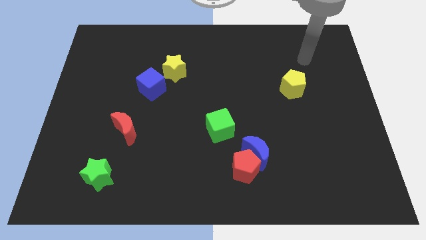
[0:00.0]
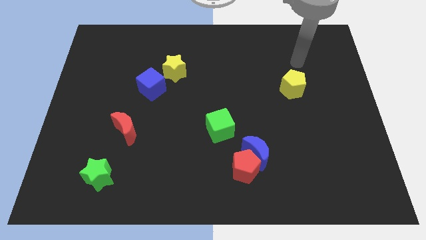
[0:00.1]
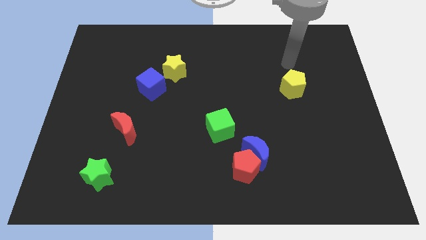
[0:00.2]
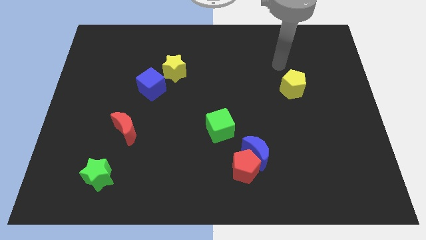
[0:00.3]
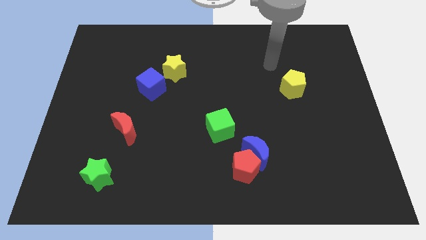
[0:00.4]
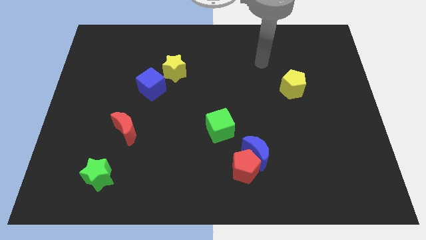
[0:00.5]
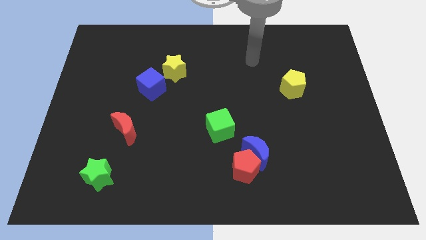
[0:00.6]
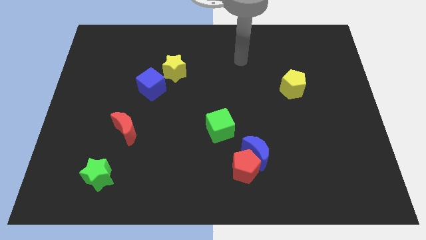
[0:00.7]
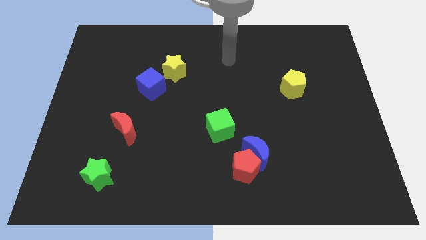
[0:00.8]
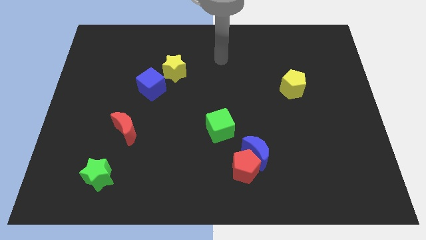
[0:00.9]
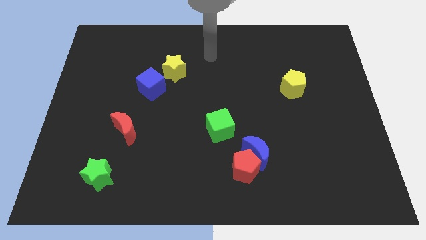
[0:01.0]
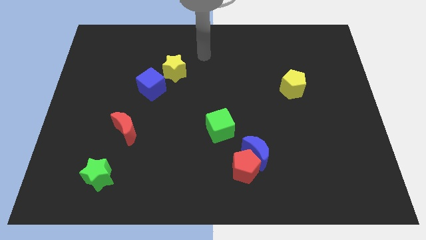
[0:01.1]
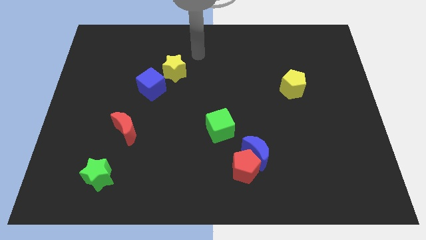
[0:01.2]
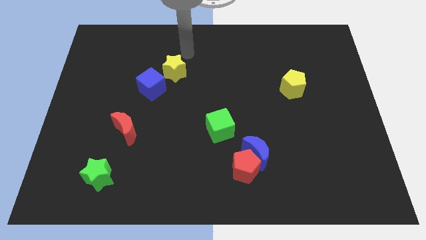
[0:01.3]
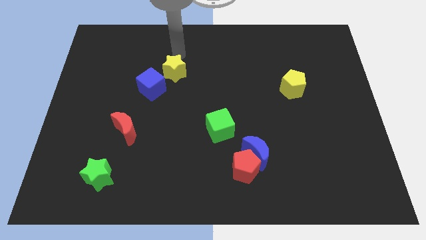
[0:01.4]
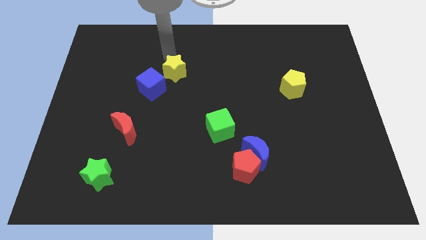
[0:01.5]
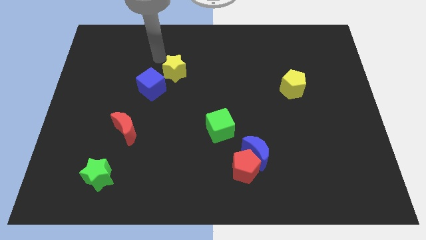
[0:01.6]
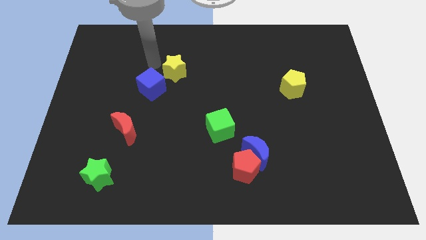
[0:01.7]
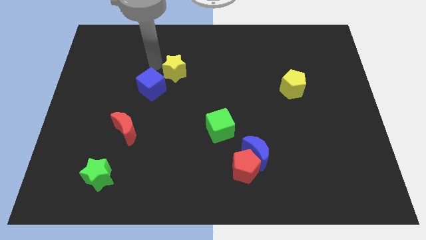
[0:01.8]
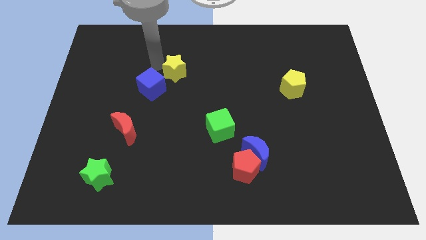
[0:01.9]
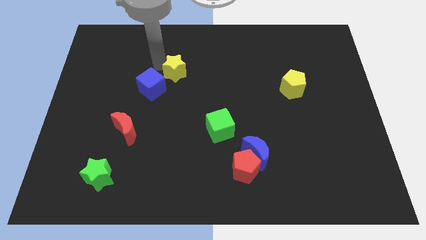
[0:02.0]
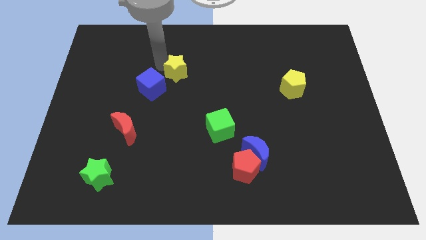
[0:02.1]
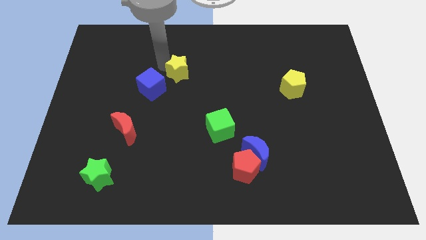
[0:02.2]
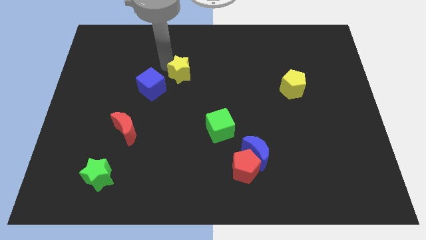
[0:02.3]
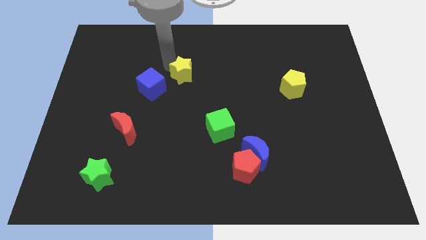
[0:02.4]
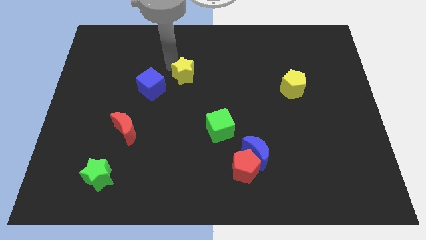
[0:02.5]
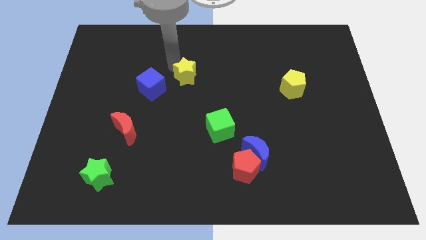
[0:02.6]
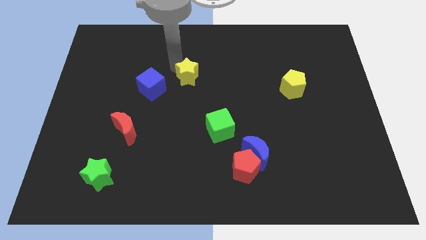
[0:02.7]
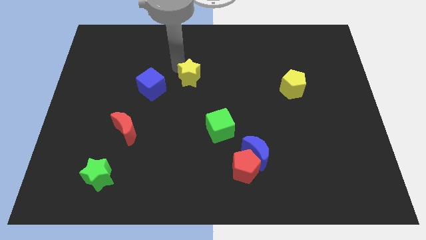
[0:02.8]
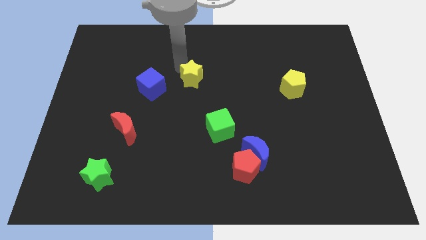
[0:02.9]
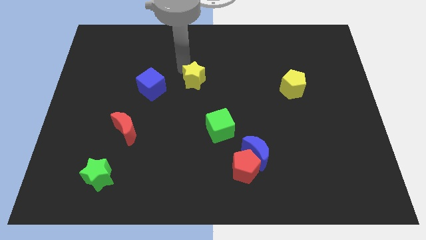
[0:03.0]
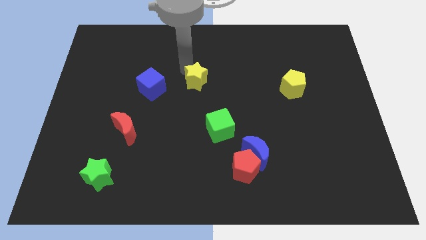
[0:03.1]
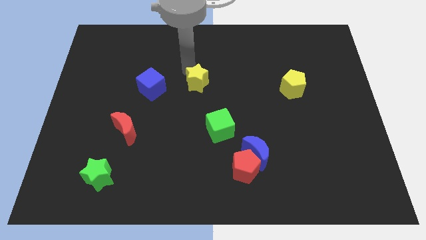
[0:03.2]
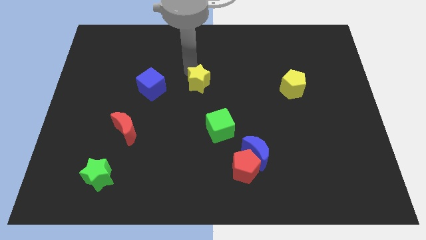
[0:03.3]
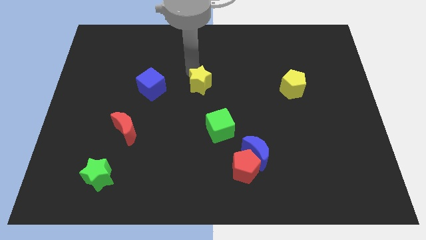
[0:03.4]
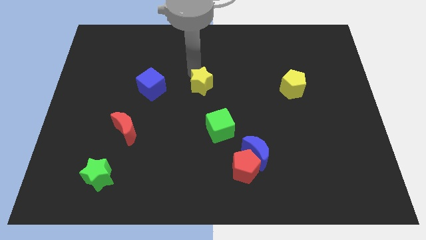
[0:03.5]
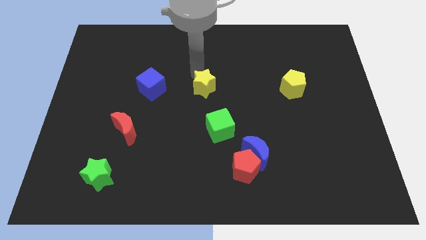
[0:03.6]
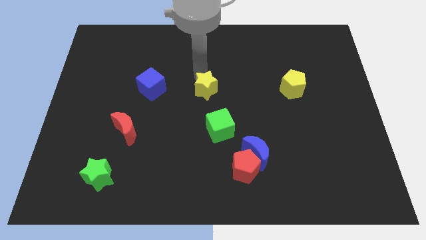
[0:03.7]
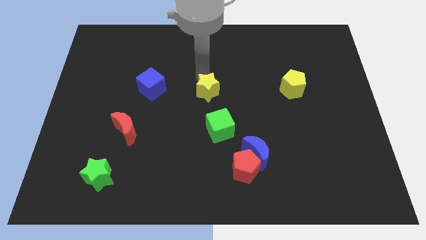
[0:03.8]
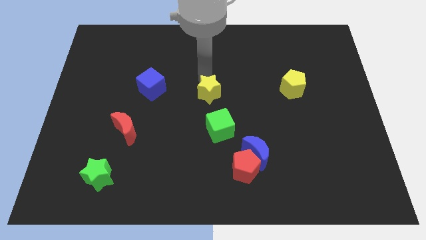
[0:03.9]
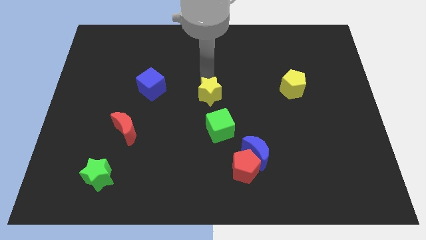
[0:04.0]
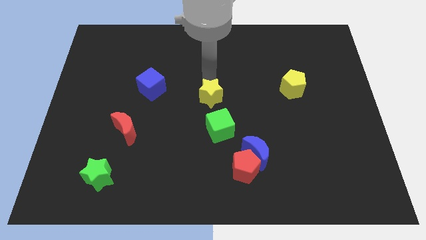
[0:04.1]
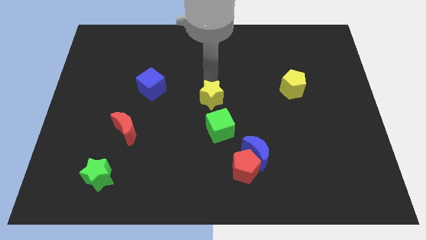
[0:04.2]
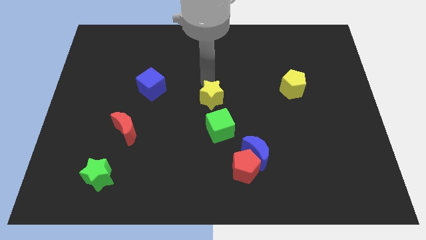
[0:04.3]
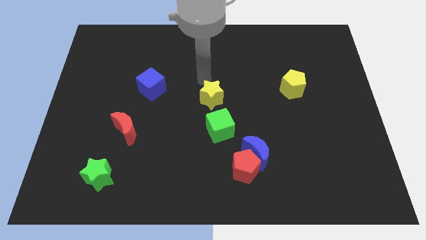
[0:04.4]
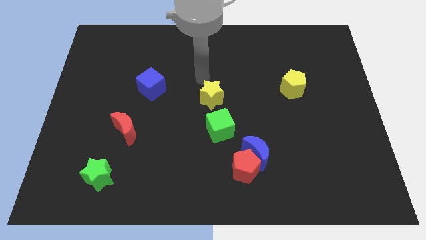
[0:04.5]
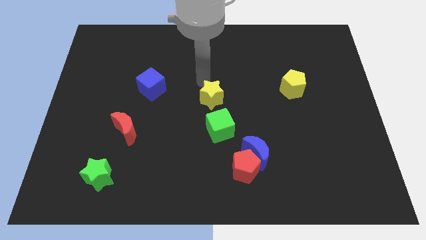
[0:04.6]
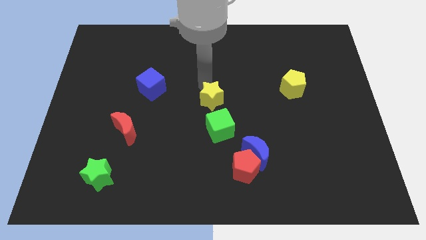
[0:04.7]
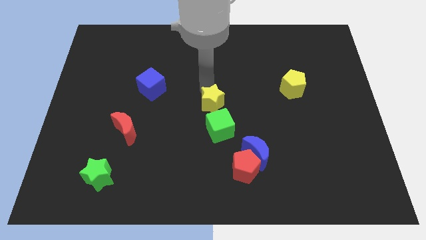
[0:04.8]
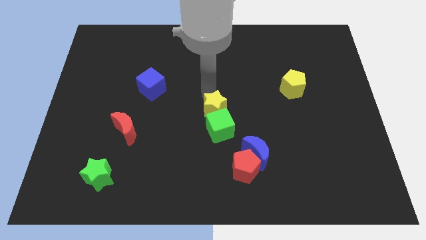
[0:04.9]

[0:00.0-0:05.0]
push the yellow star next to the green cube

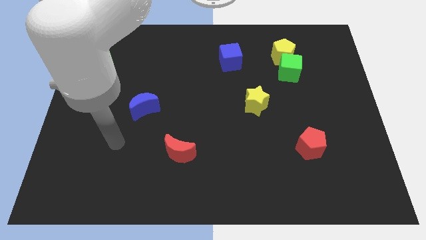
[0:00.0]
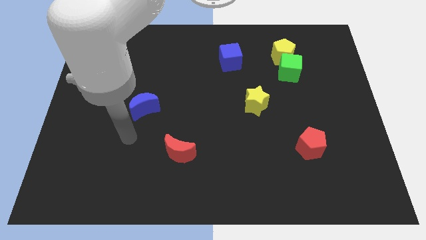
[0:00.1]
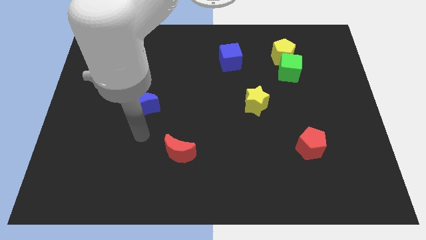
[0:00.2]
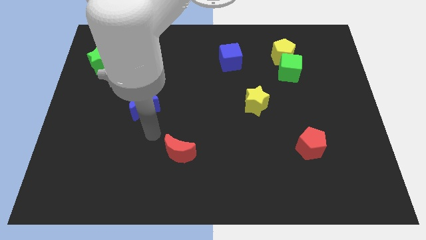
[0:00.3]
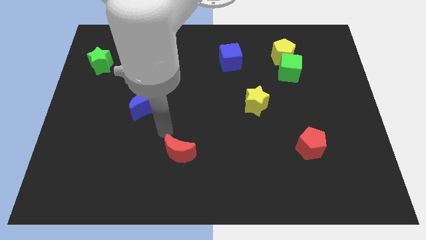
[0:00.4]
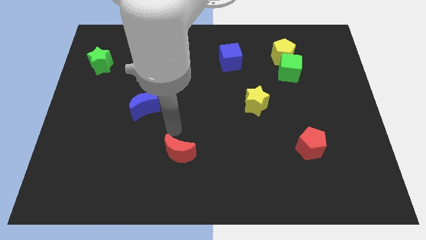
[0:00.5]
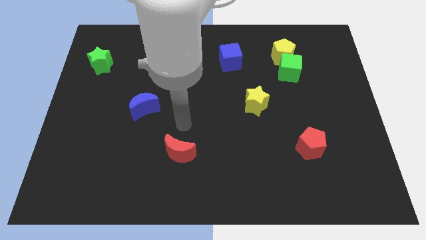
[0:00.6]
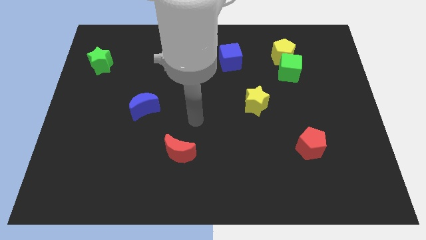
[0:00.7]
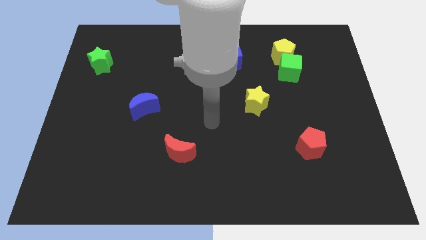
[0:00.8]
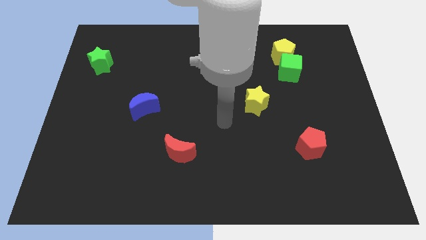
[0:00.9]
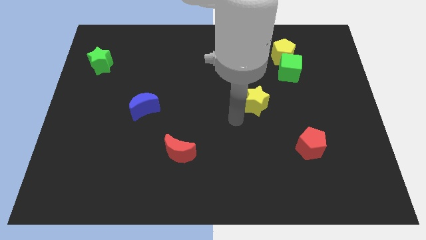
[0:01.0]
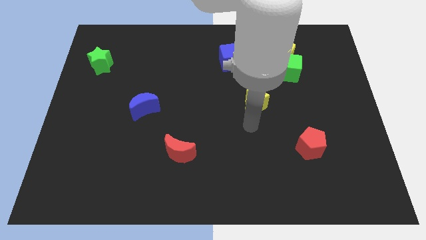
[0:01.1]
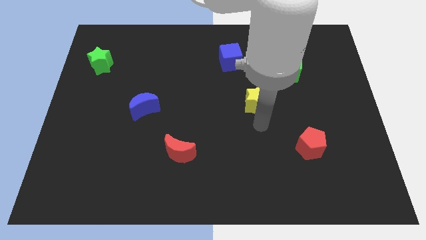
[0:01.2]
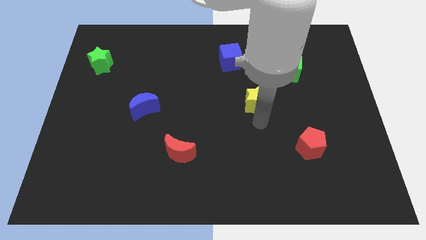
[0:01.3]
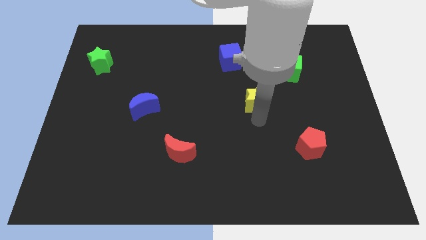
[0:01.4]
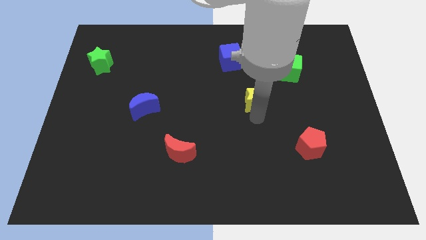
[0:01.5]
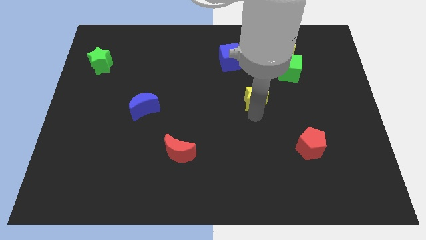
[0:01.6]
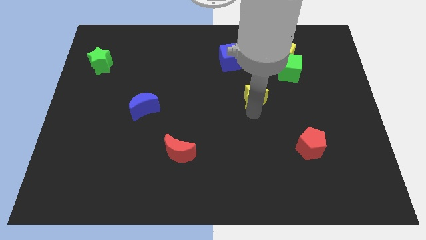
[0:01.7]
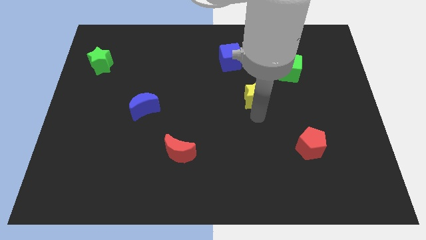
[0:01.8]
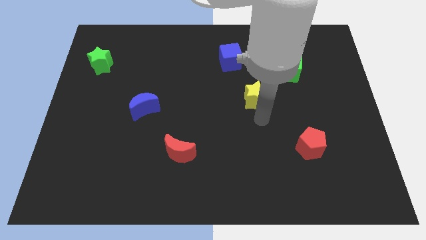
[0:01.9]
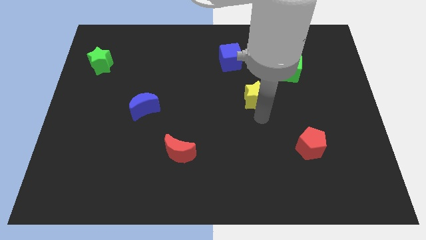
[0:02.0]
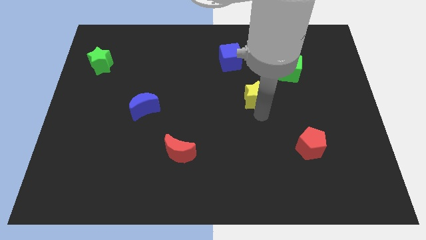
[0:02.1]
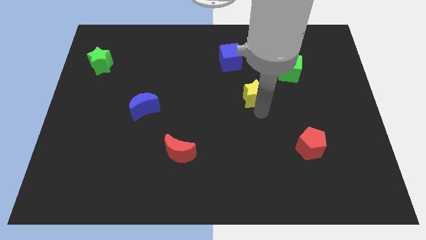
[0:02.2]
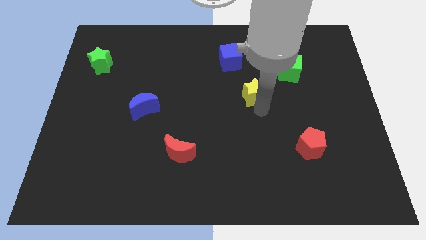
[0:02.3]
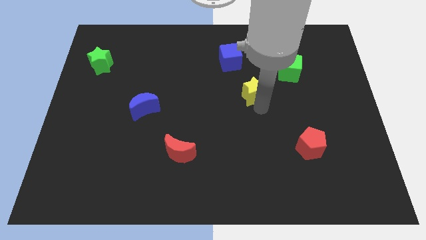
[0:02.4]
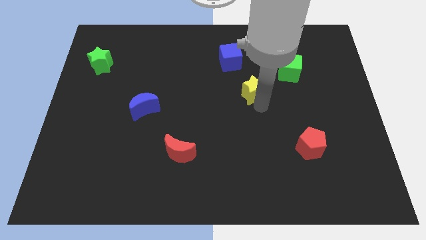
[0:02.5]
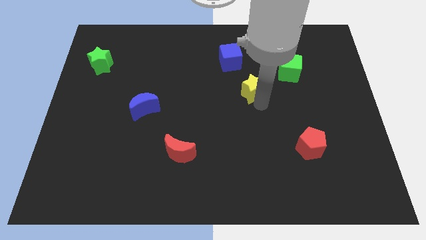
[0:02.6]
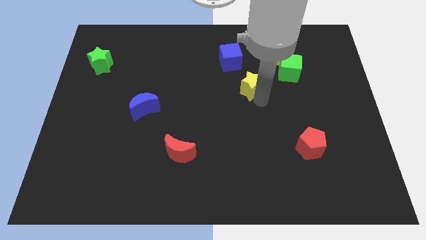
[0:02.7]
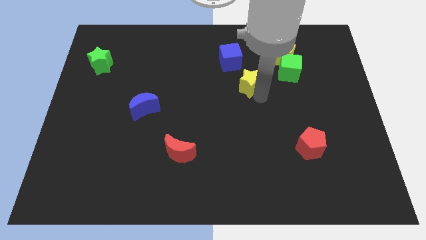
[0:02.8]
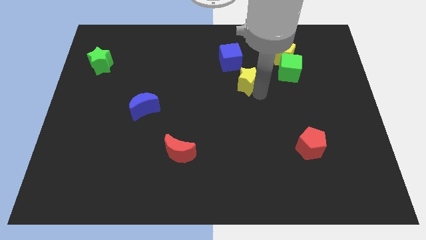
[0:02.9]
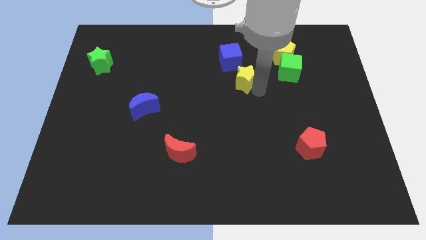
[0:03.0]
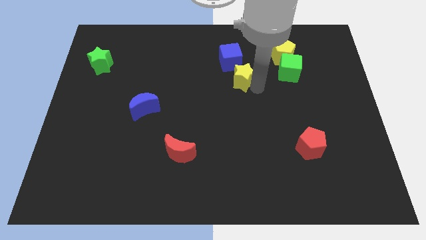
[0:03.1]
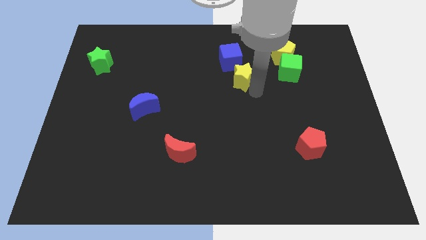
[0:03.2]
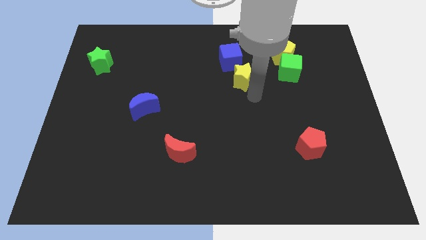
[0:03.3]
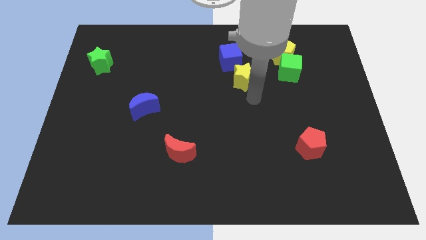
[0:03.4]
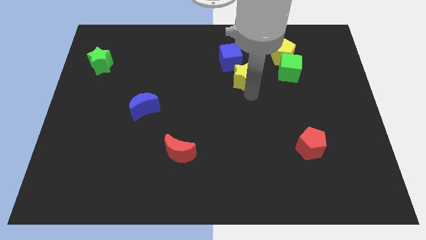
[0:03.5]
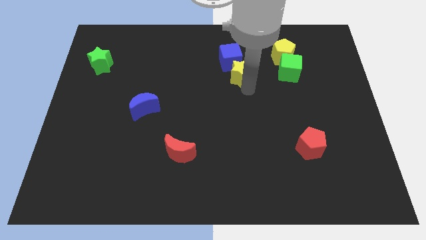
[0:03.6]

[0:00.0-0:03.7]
move the yellow star close to the blue cube
